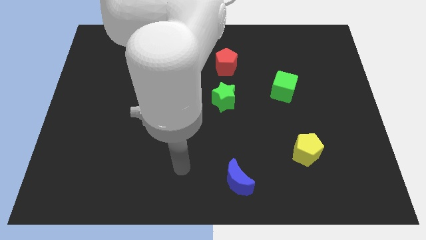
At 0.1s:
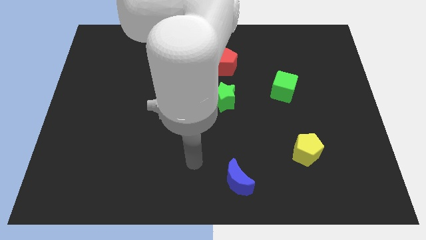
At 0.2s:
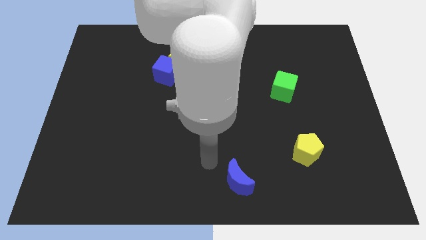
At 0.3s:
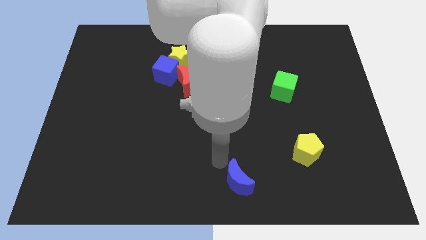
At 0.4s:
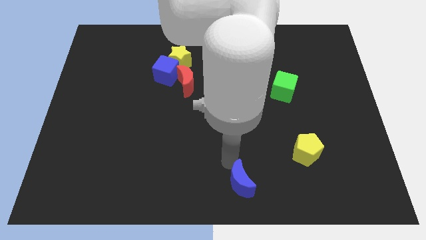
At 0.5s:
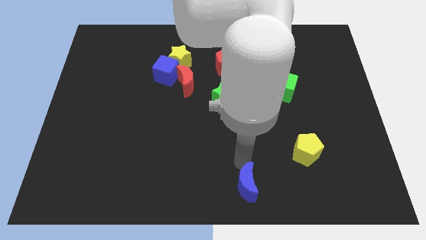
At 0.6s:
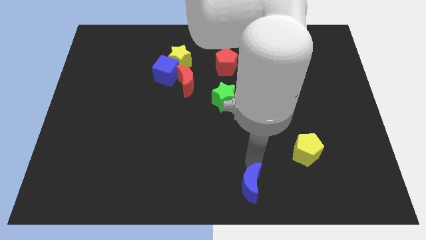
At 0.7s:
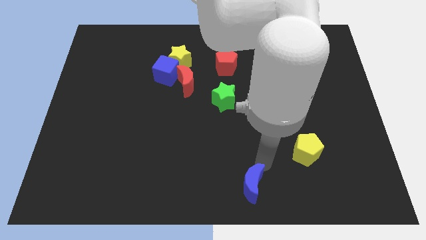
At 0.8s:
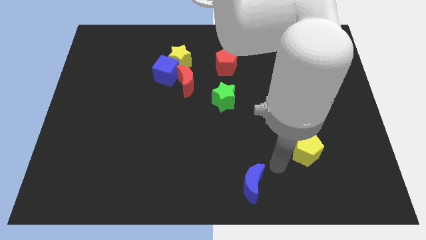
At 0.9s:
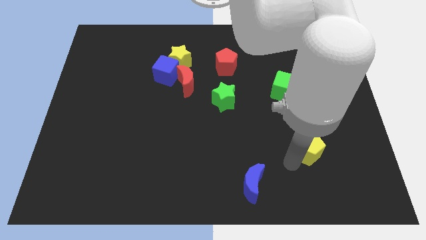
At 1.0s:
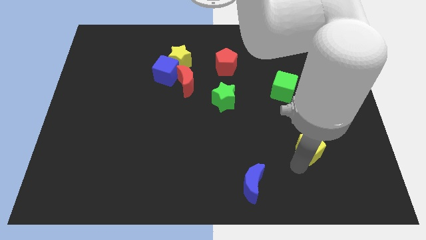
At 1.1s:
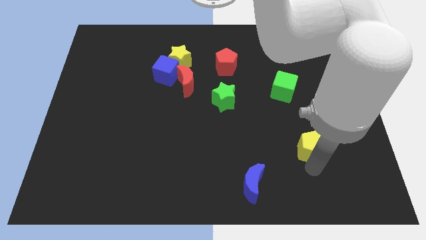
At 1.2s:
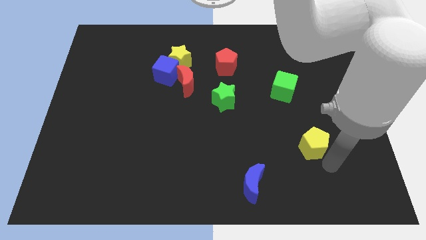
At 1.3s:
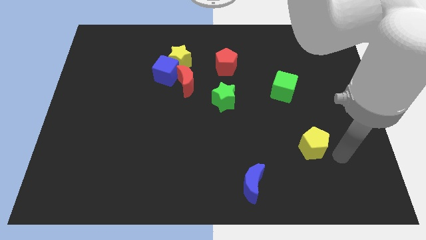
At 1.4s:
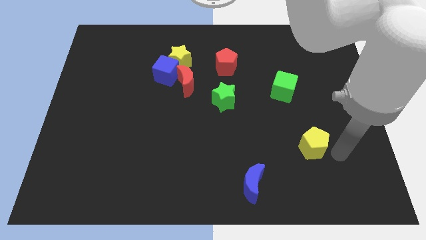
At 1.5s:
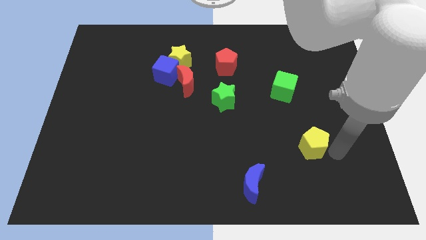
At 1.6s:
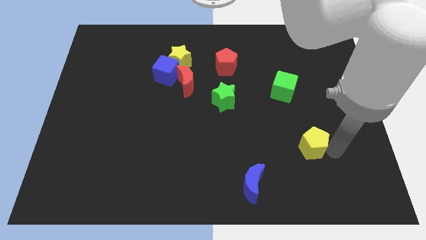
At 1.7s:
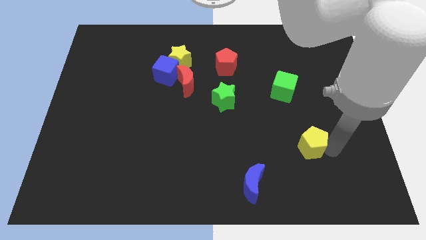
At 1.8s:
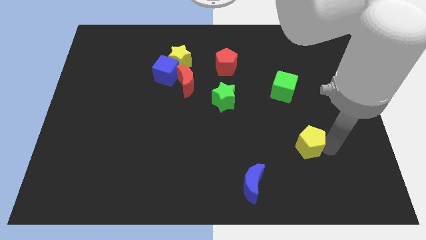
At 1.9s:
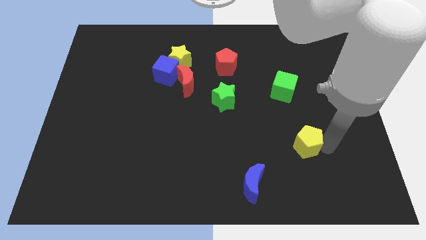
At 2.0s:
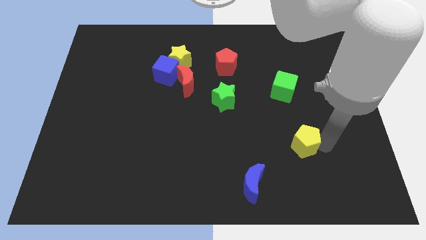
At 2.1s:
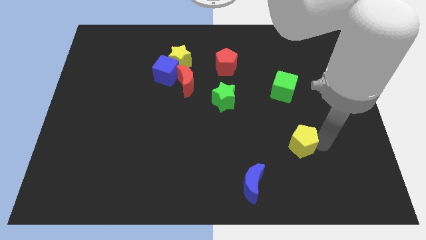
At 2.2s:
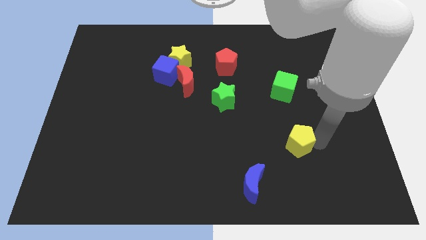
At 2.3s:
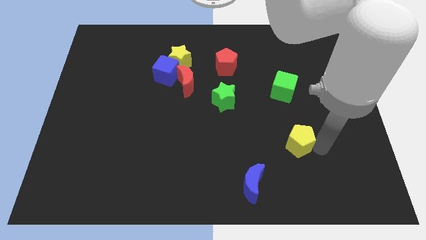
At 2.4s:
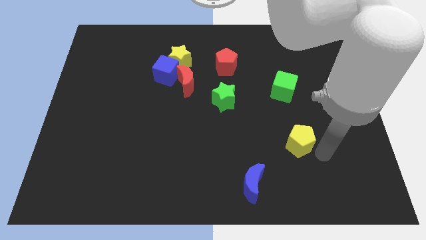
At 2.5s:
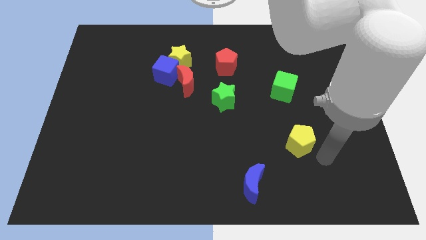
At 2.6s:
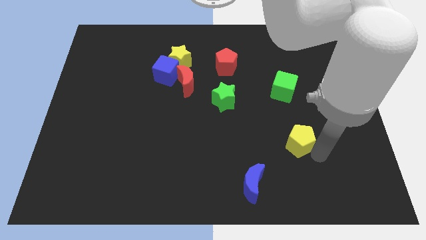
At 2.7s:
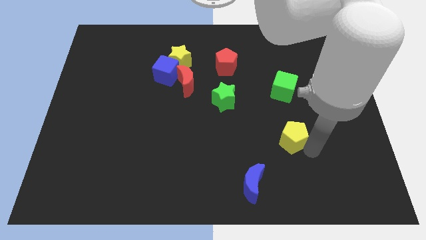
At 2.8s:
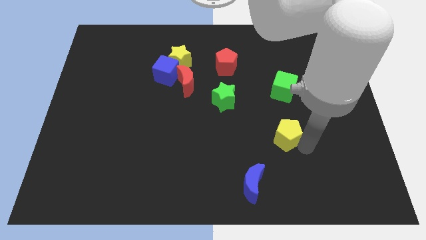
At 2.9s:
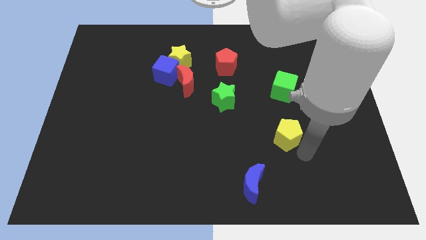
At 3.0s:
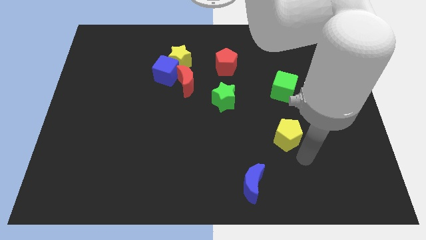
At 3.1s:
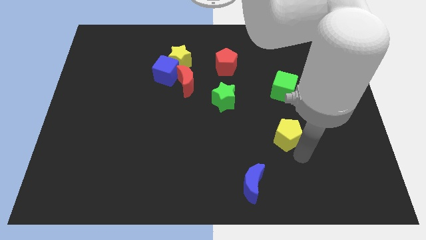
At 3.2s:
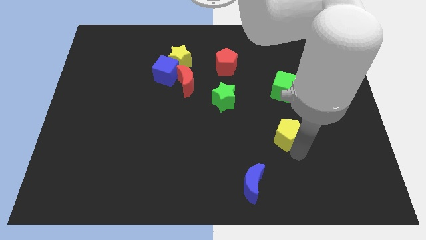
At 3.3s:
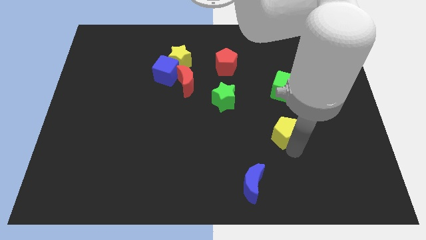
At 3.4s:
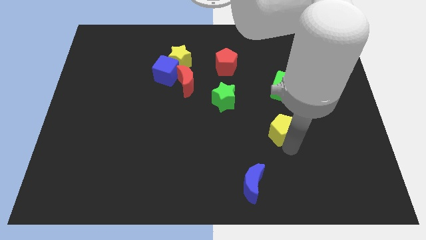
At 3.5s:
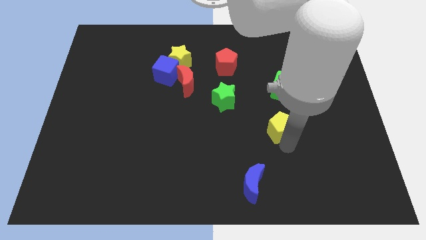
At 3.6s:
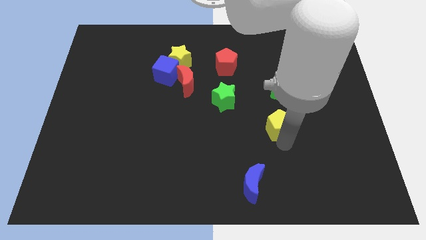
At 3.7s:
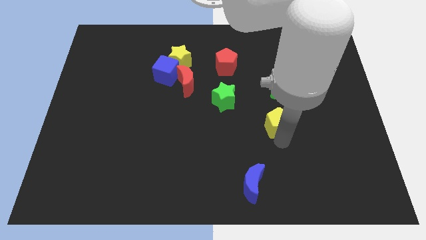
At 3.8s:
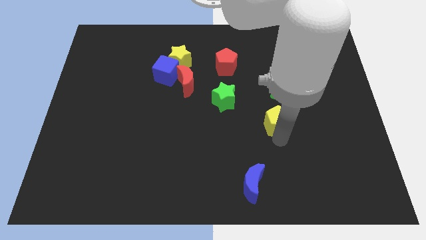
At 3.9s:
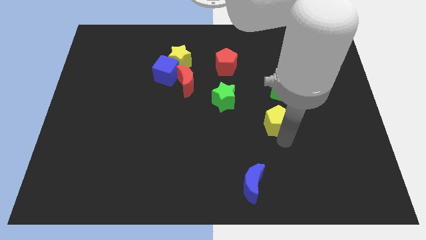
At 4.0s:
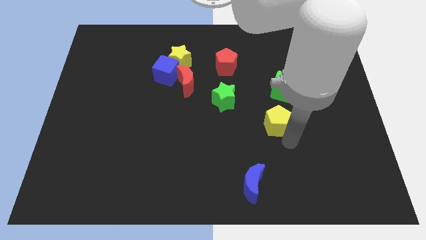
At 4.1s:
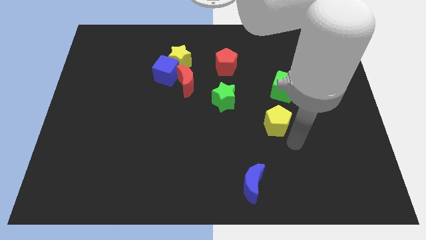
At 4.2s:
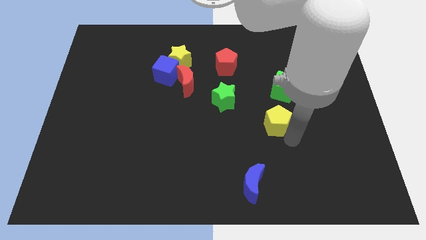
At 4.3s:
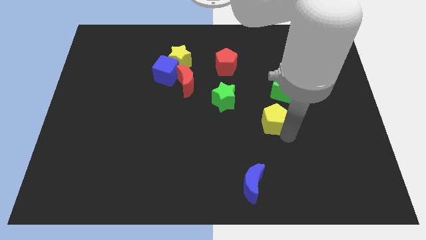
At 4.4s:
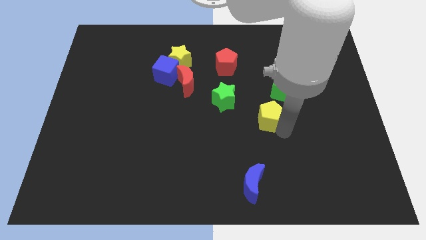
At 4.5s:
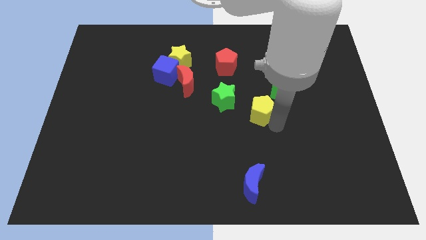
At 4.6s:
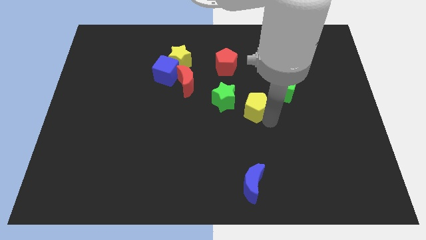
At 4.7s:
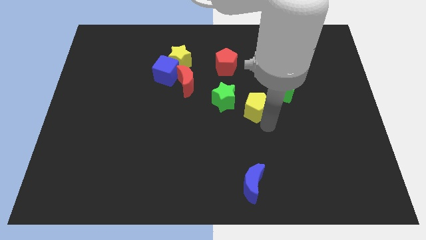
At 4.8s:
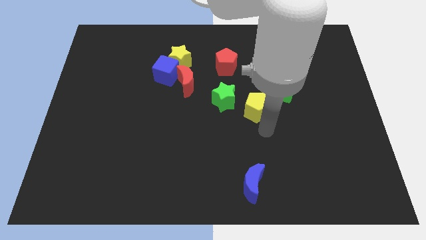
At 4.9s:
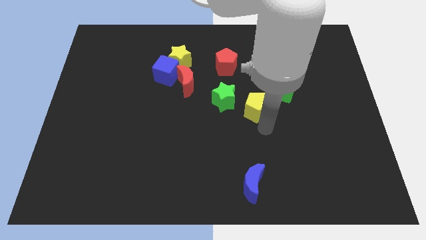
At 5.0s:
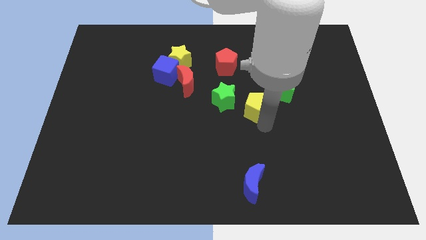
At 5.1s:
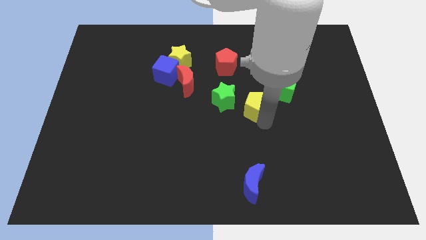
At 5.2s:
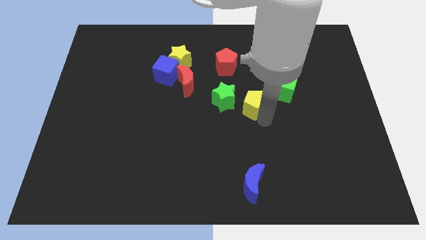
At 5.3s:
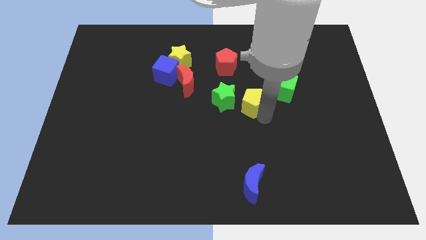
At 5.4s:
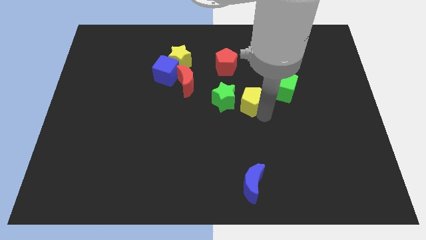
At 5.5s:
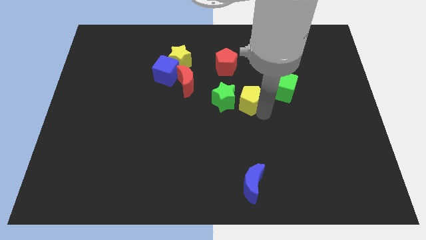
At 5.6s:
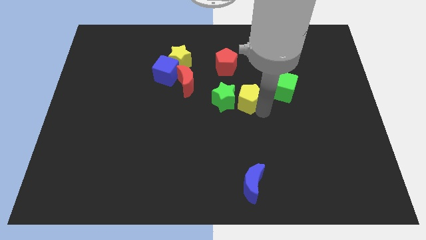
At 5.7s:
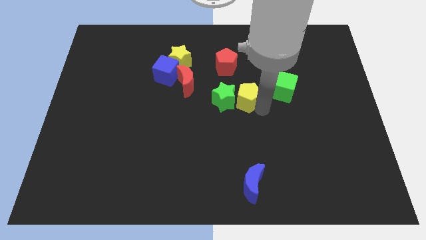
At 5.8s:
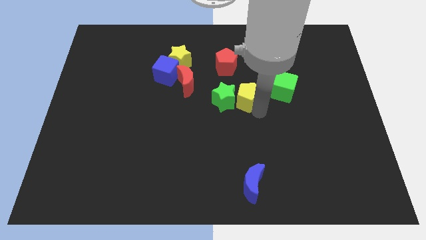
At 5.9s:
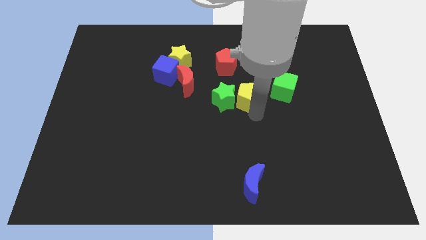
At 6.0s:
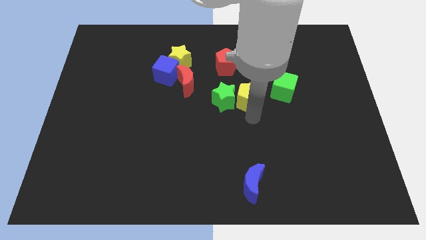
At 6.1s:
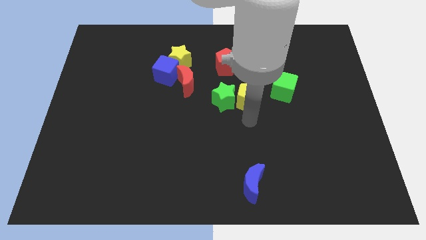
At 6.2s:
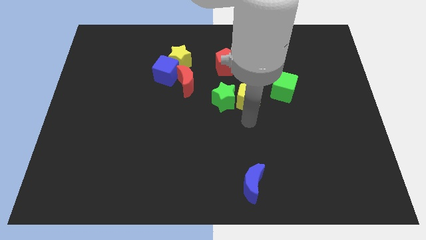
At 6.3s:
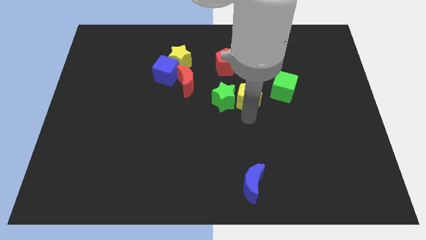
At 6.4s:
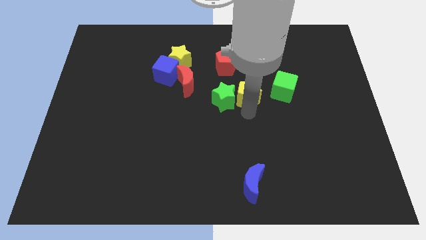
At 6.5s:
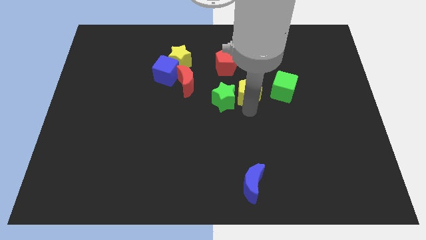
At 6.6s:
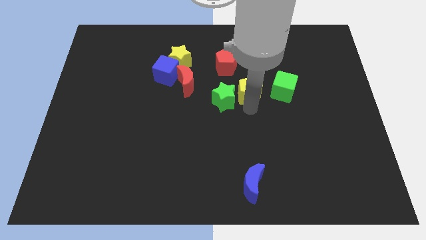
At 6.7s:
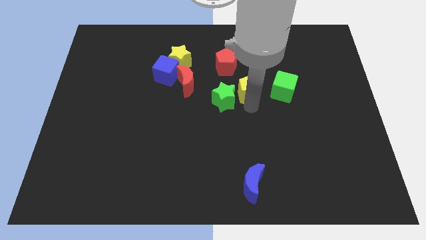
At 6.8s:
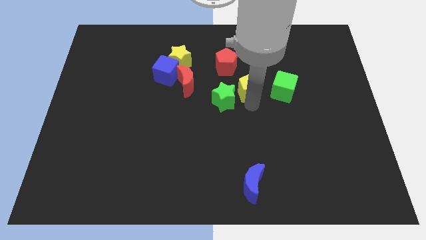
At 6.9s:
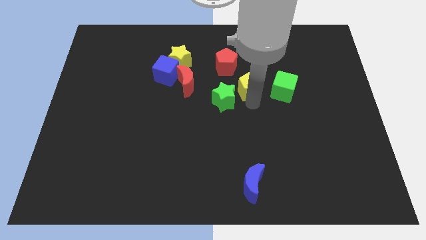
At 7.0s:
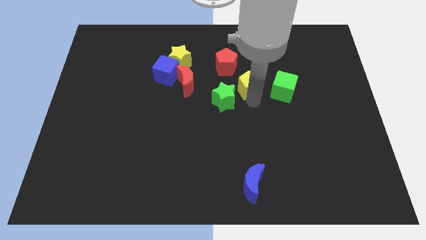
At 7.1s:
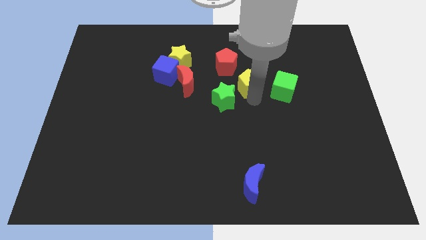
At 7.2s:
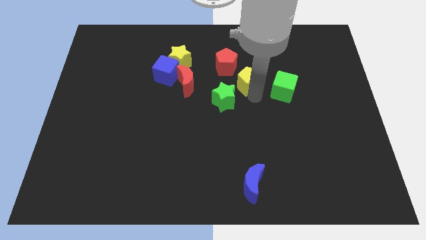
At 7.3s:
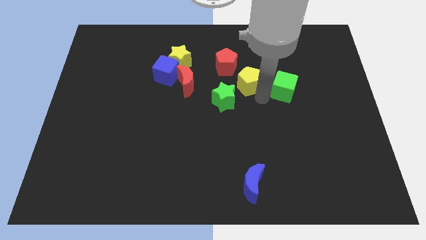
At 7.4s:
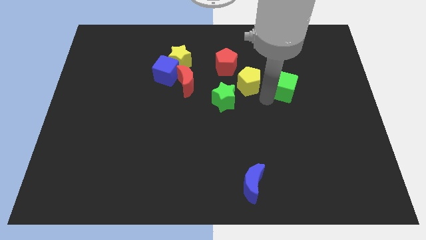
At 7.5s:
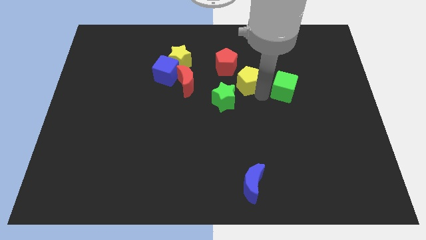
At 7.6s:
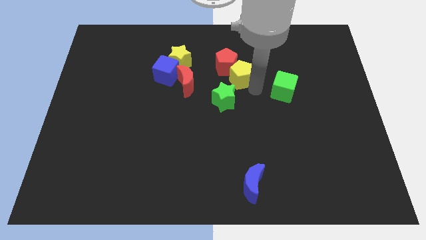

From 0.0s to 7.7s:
push the yellow pentagon next to the red pentagon
